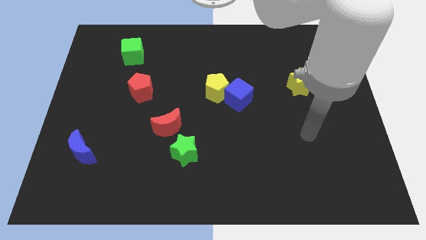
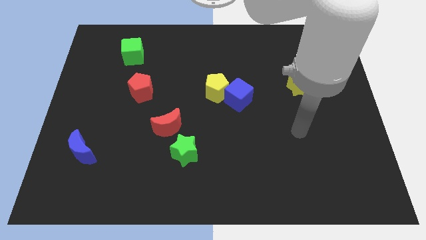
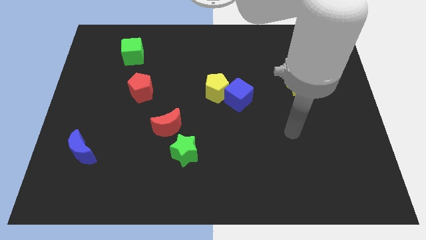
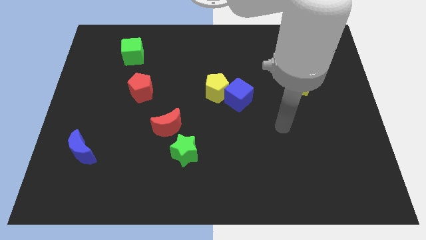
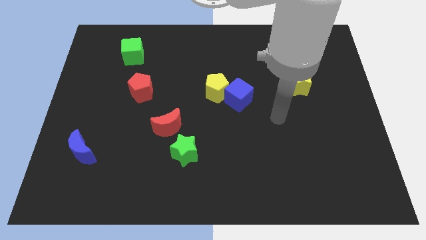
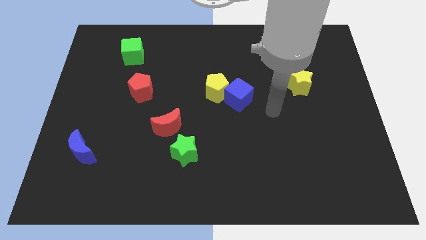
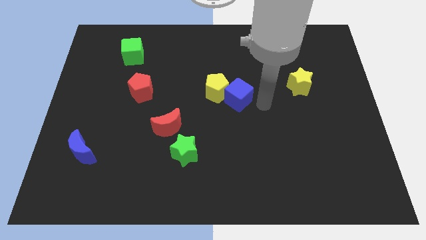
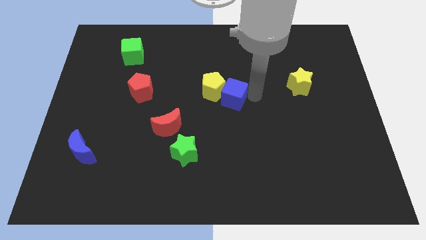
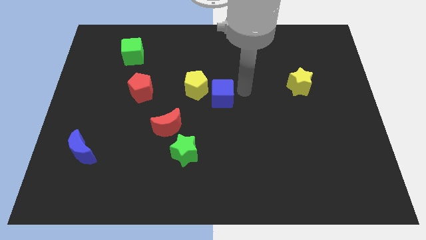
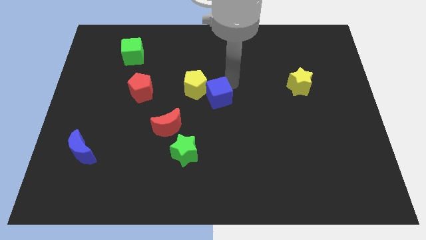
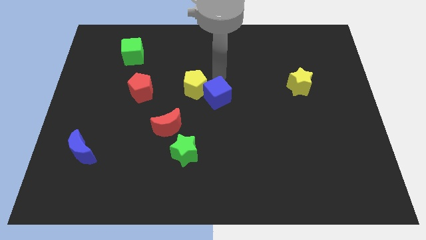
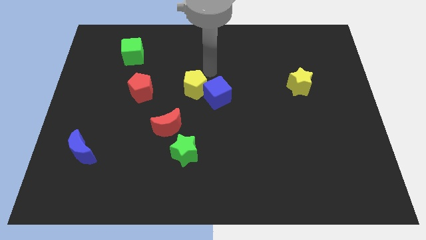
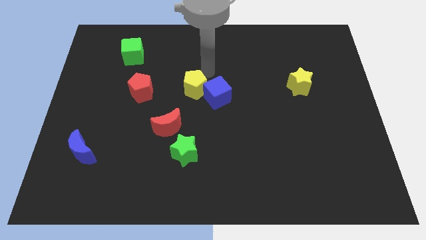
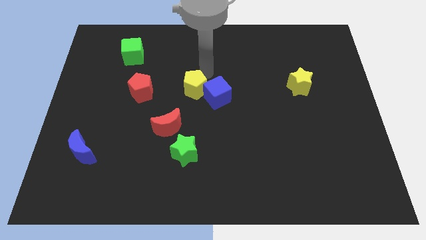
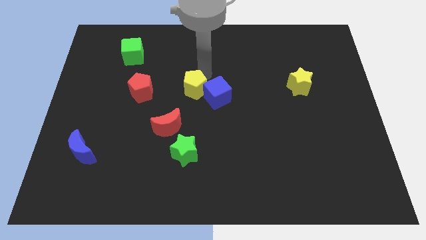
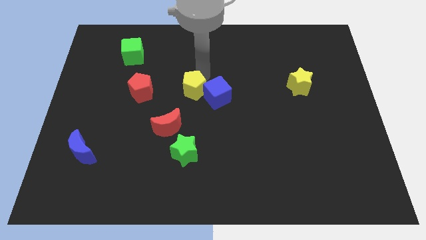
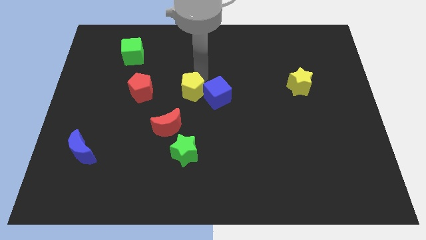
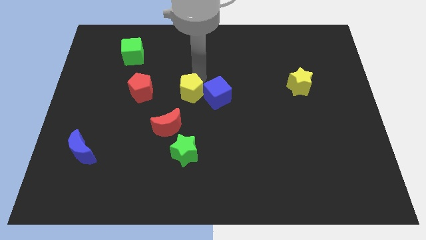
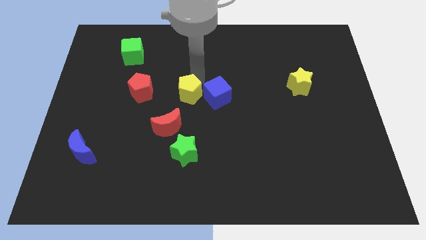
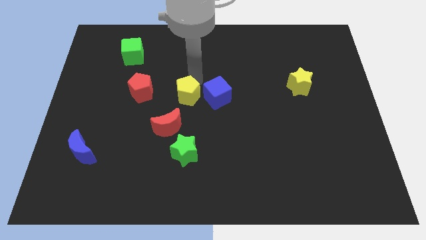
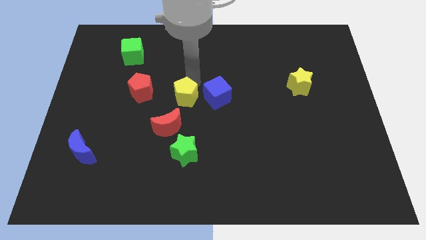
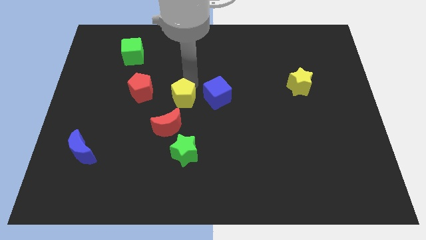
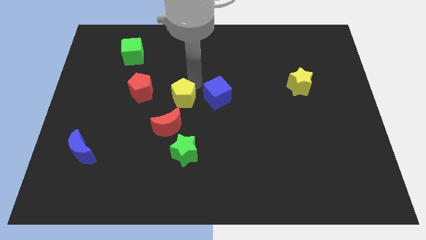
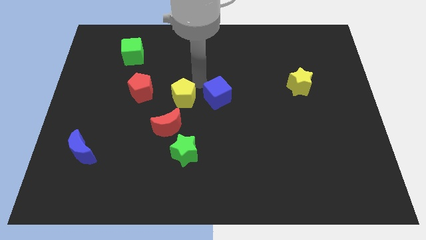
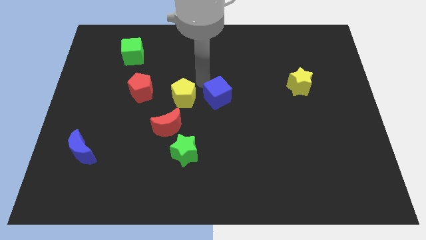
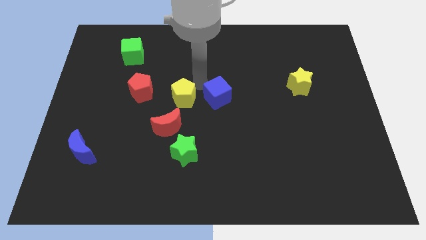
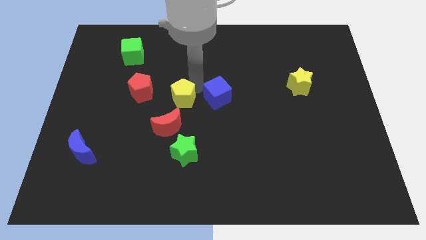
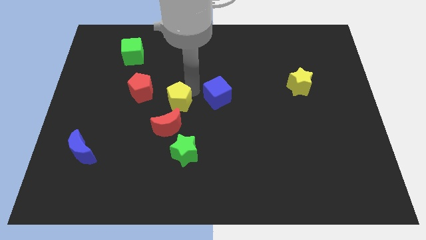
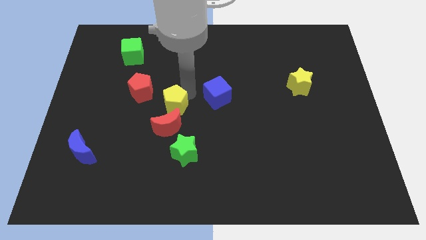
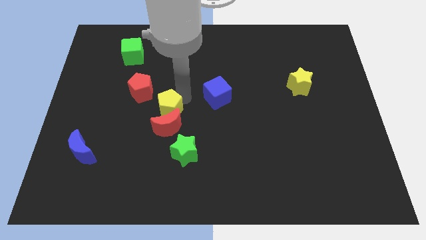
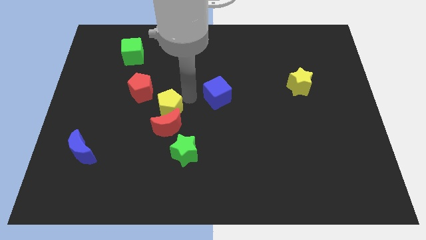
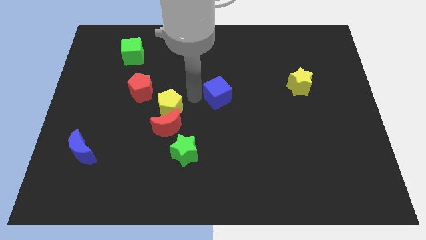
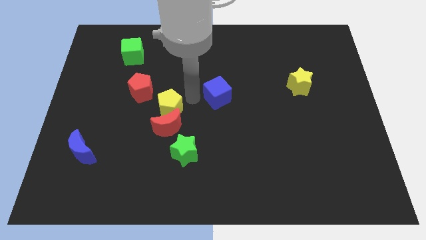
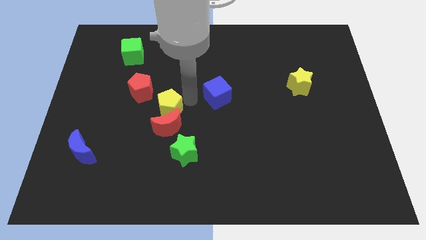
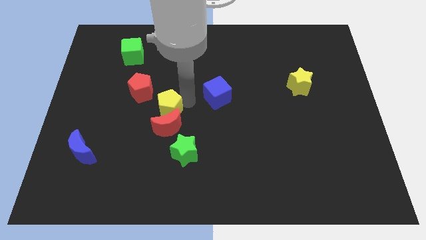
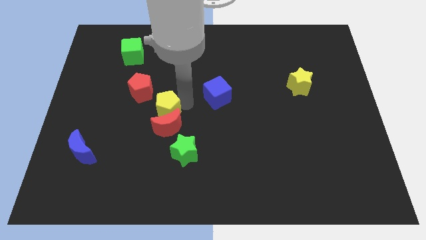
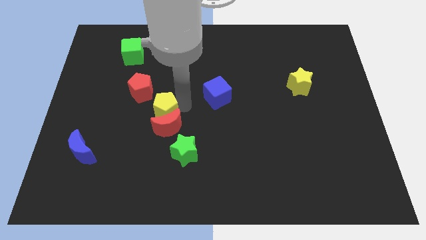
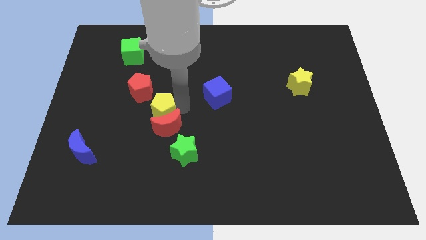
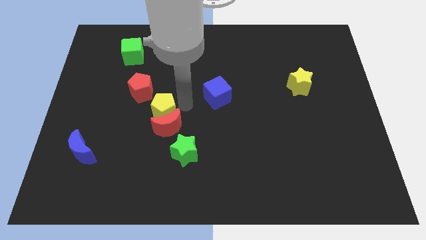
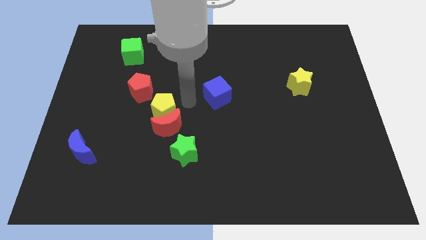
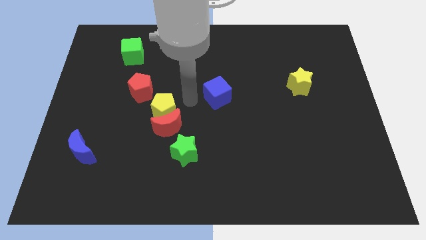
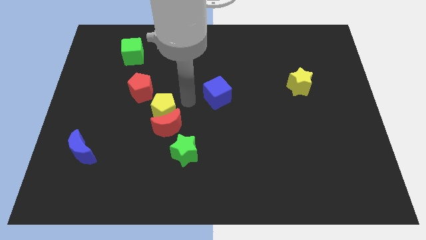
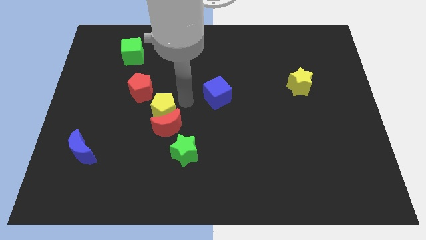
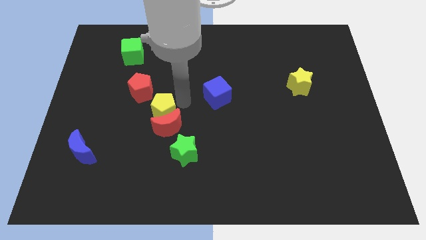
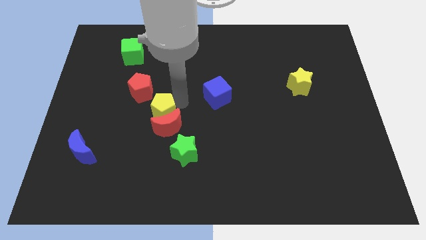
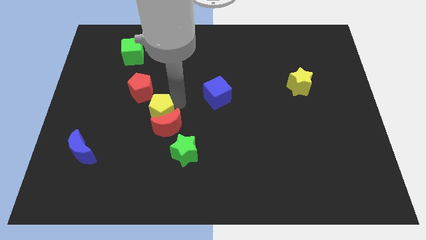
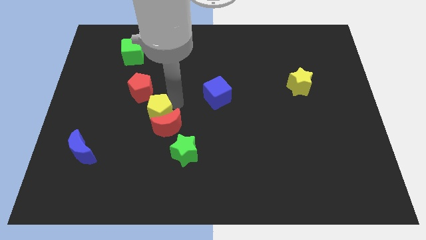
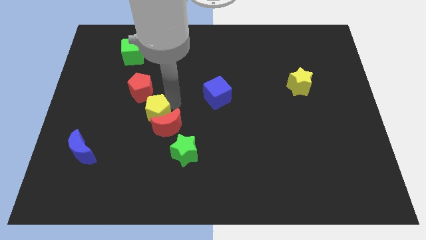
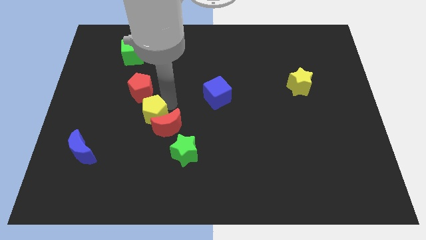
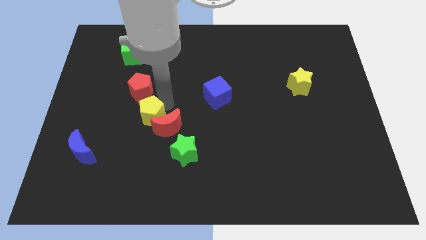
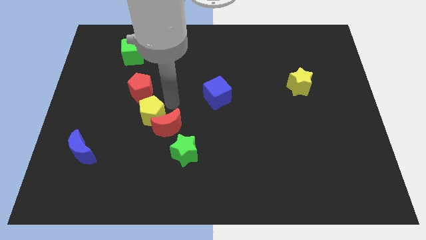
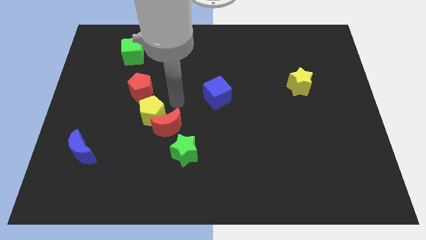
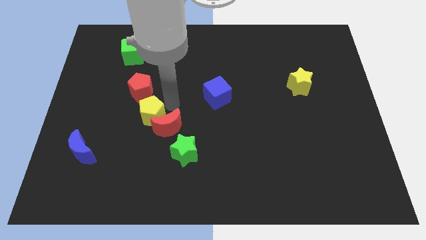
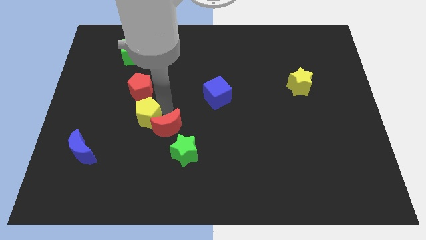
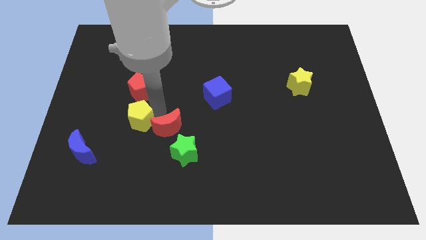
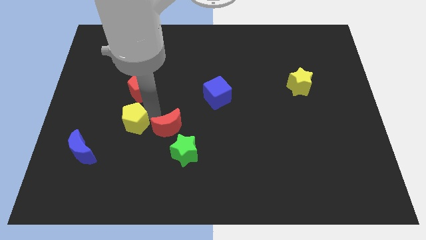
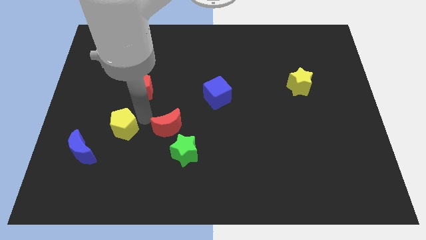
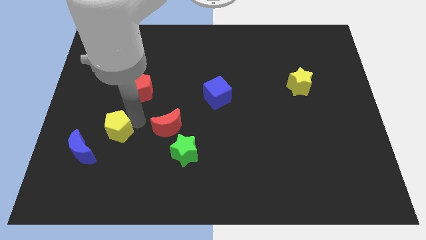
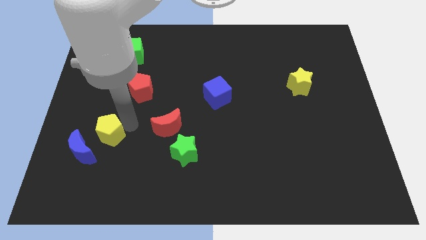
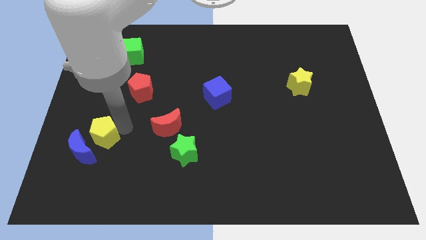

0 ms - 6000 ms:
move the yellow pentagon close to the blue moon

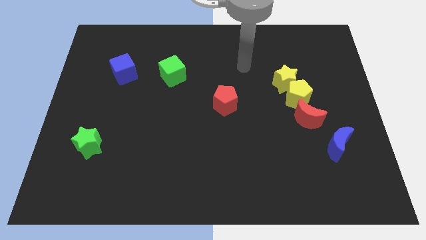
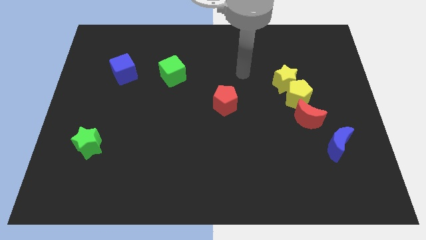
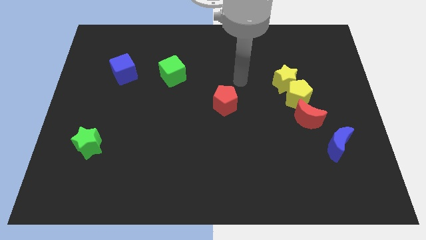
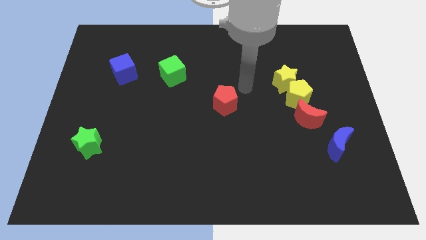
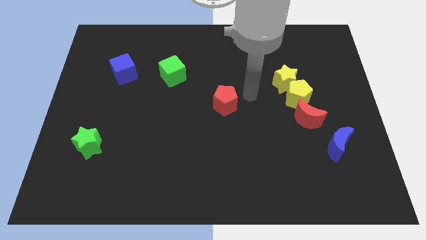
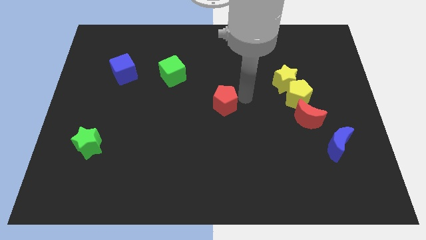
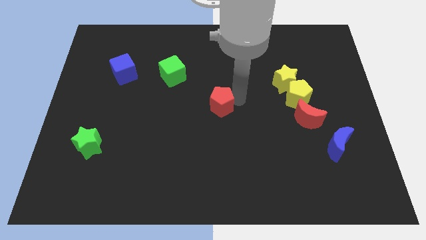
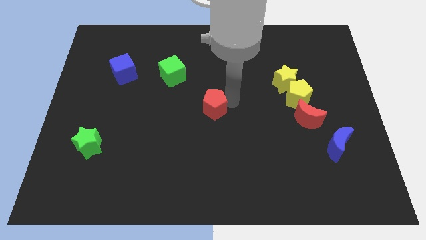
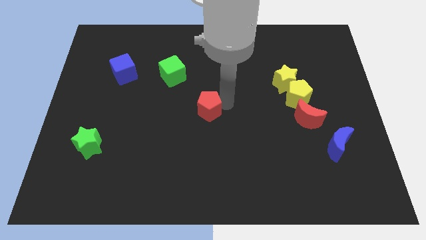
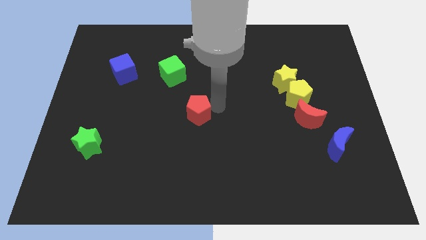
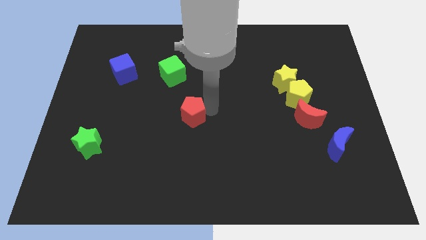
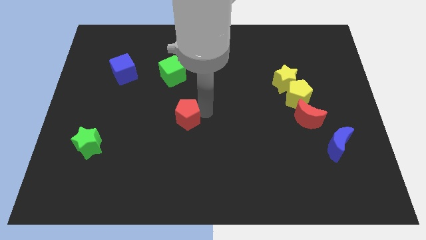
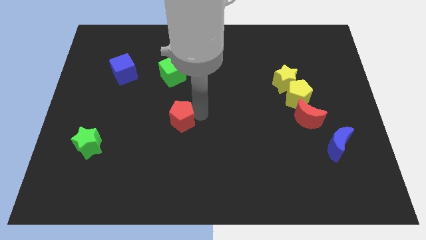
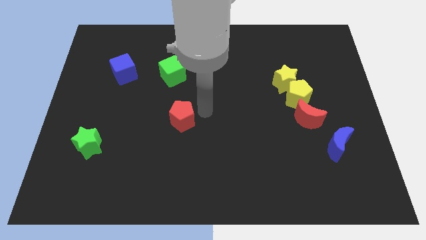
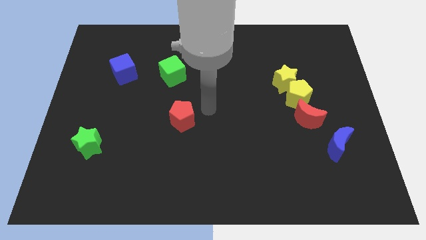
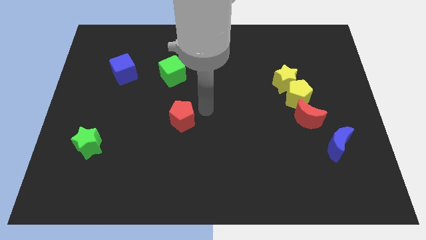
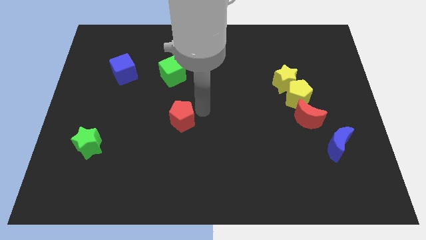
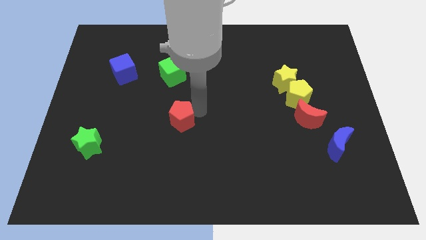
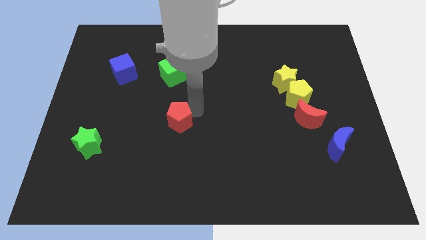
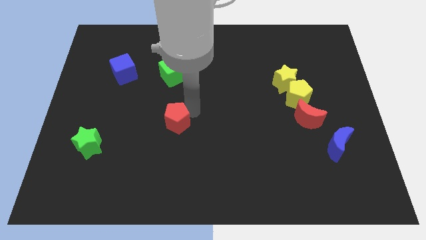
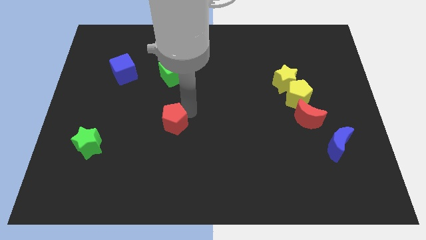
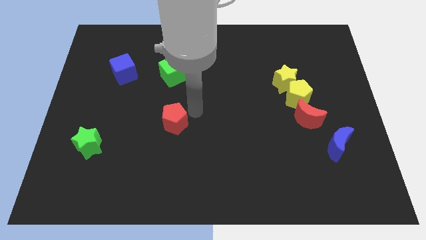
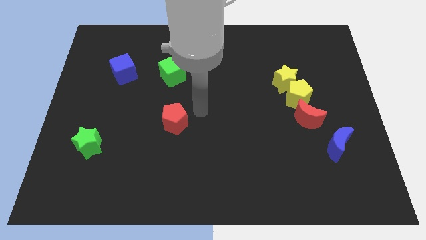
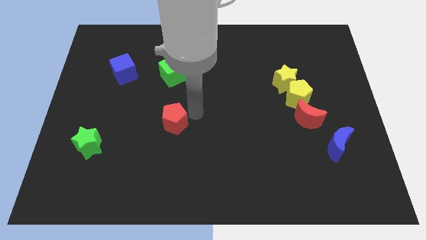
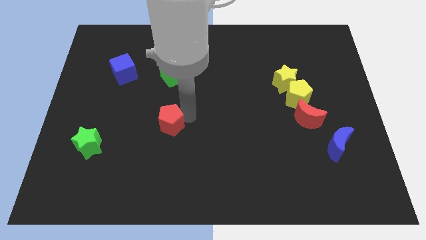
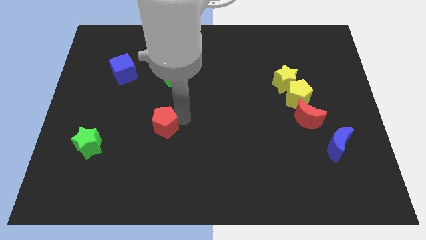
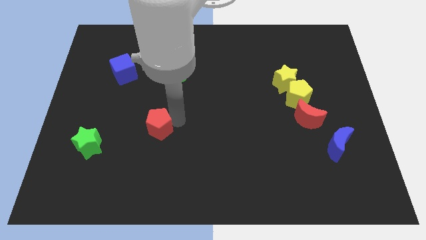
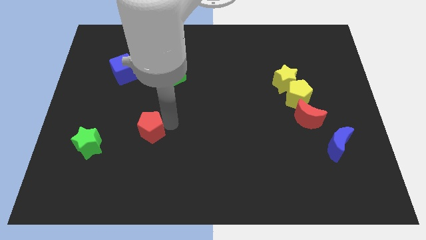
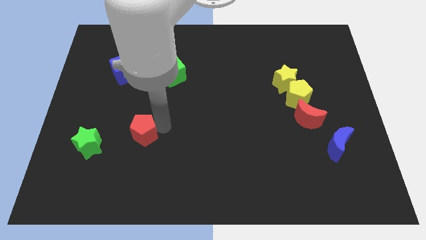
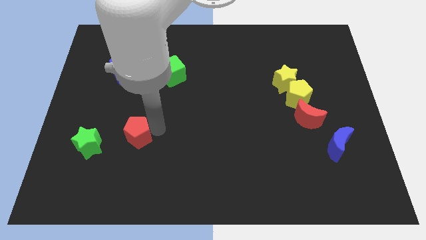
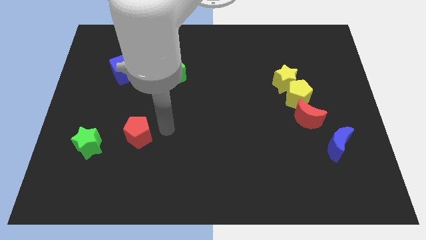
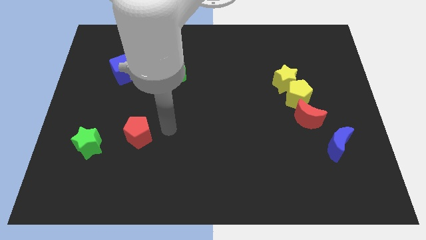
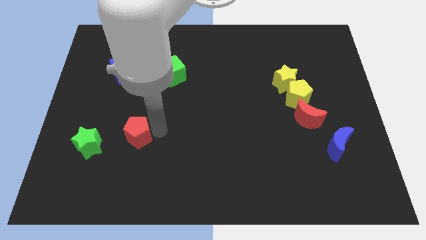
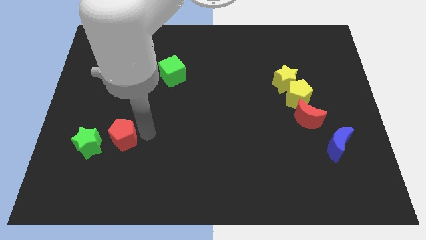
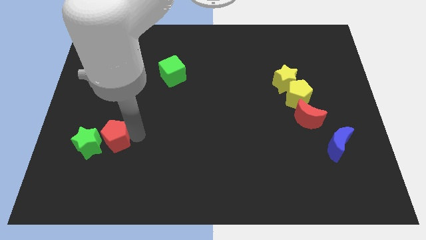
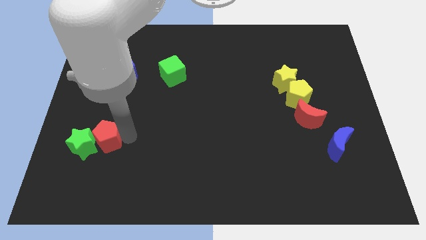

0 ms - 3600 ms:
push the red pentagon next to the green star
